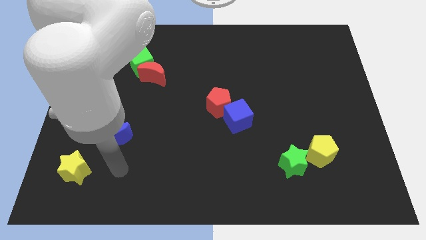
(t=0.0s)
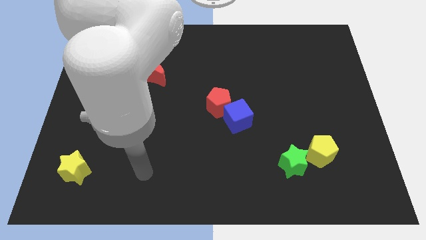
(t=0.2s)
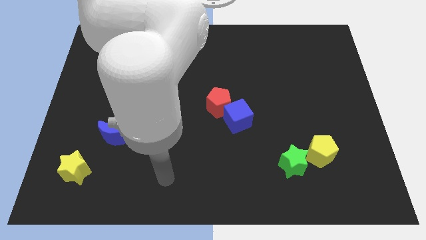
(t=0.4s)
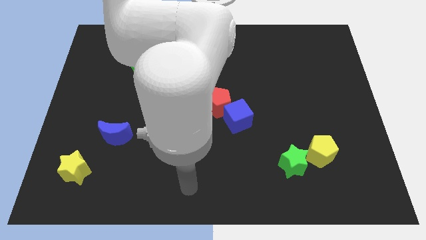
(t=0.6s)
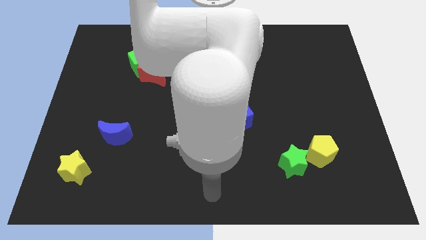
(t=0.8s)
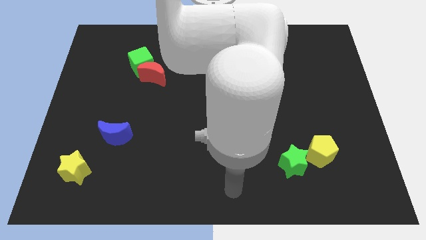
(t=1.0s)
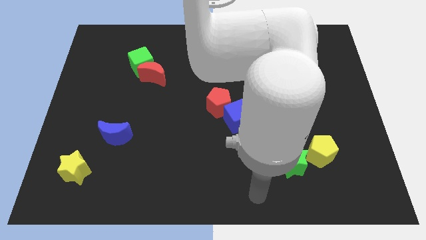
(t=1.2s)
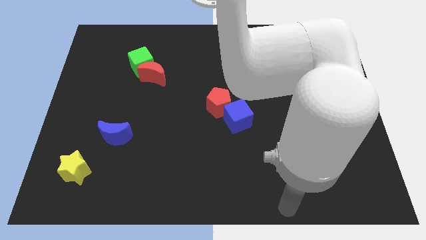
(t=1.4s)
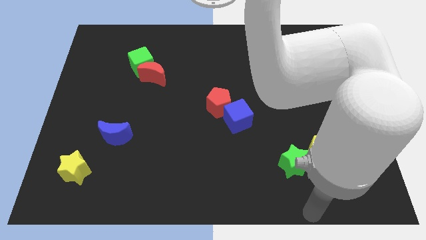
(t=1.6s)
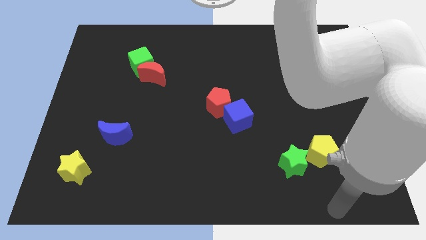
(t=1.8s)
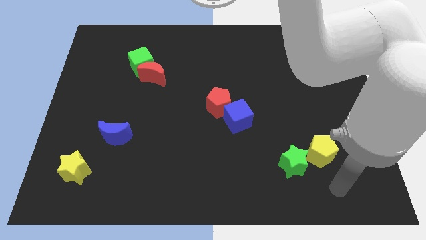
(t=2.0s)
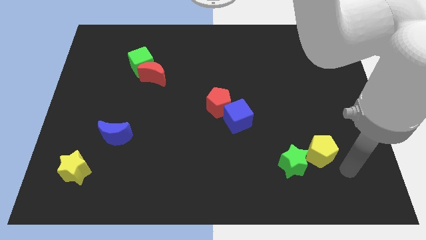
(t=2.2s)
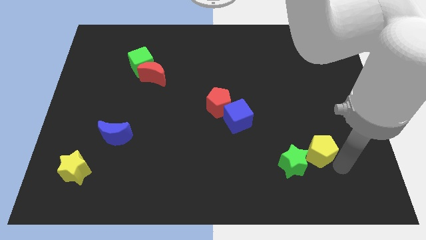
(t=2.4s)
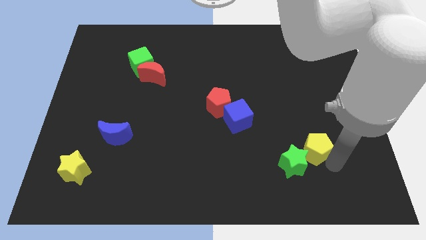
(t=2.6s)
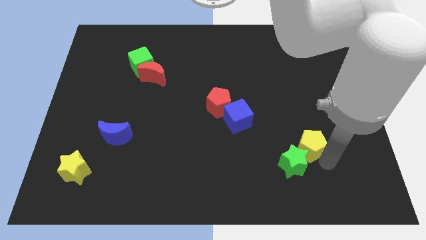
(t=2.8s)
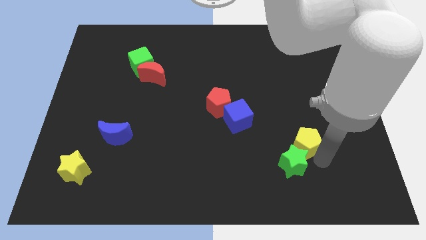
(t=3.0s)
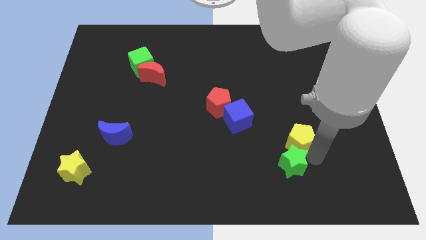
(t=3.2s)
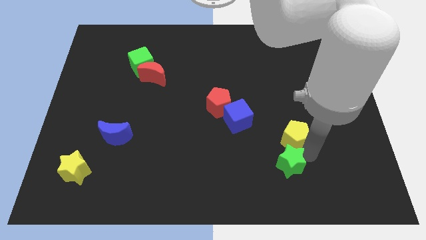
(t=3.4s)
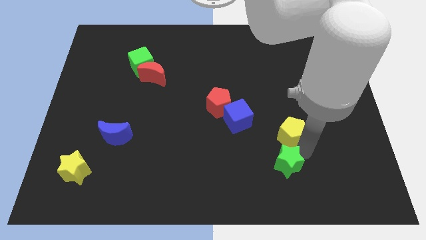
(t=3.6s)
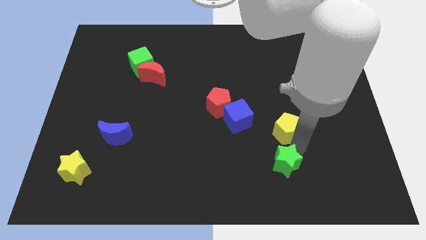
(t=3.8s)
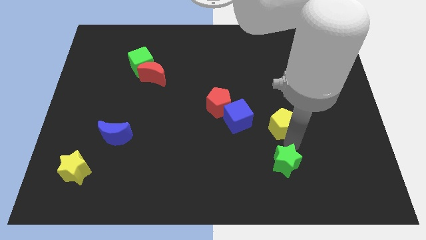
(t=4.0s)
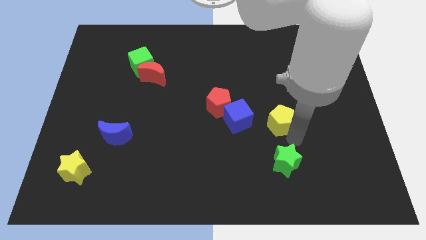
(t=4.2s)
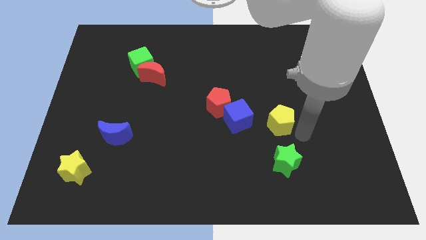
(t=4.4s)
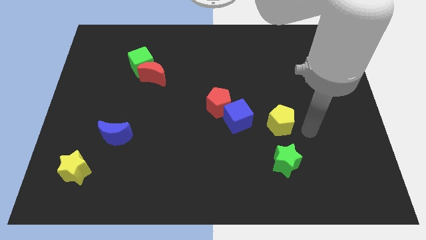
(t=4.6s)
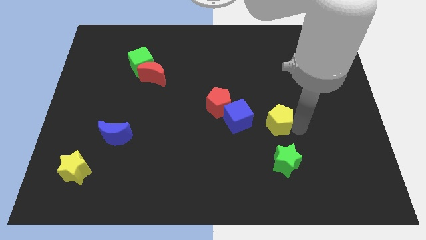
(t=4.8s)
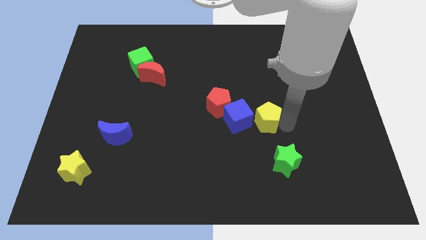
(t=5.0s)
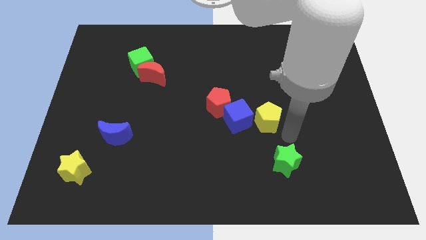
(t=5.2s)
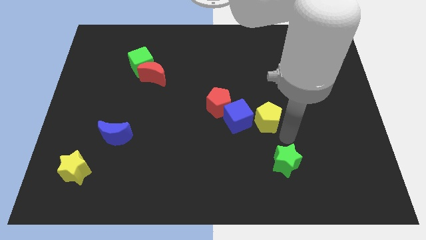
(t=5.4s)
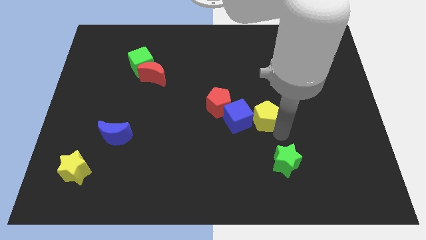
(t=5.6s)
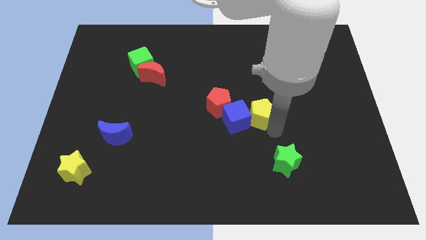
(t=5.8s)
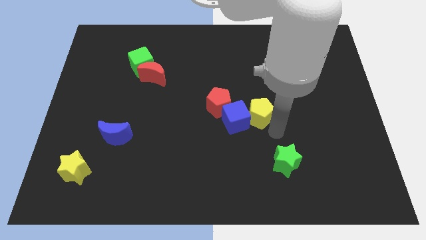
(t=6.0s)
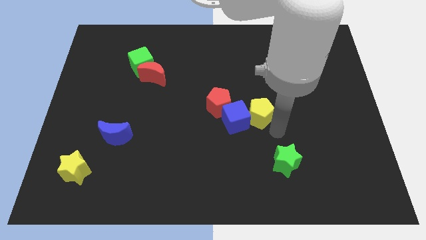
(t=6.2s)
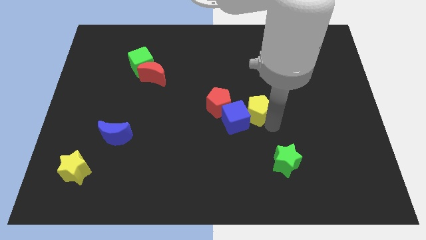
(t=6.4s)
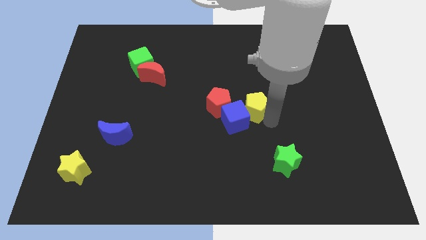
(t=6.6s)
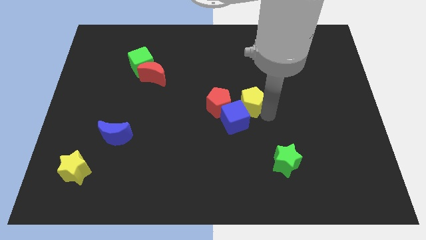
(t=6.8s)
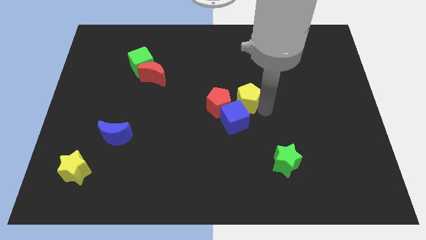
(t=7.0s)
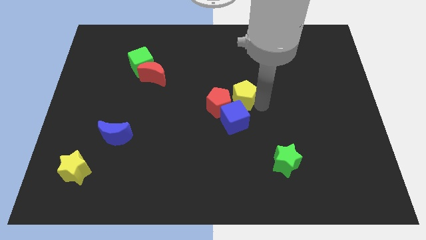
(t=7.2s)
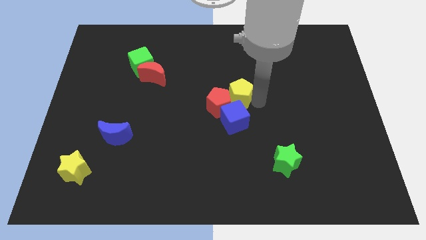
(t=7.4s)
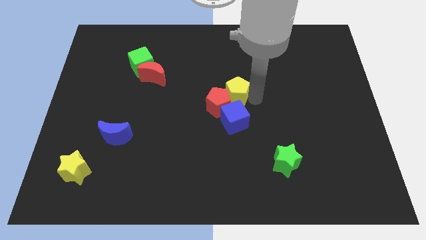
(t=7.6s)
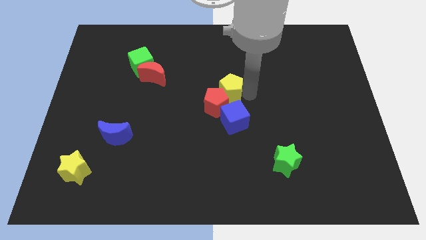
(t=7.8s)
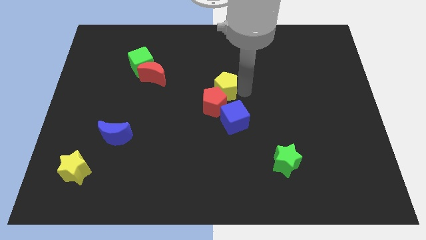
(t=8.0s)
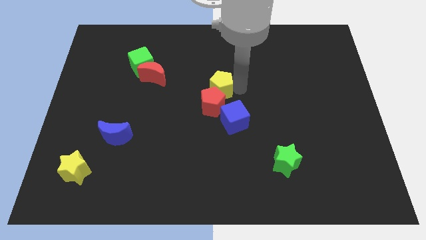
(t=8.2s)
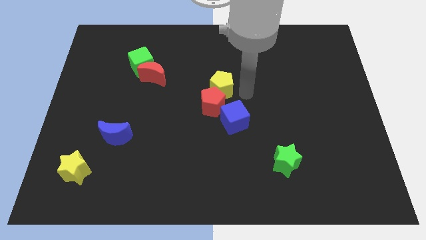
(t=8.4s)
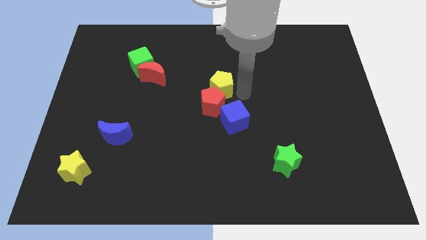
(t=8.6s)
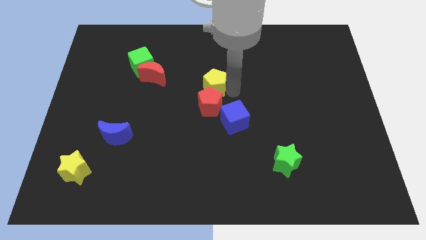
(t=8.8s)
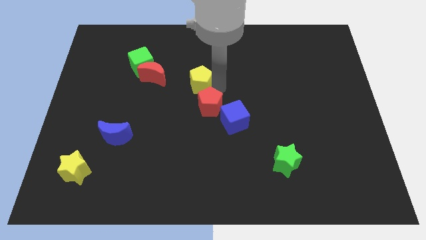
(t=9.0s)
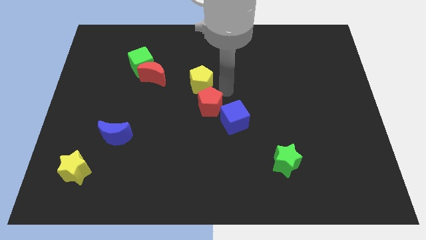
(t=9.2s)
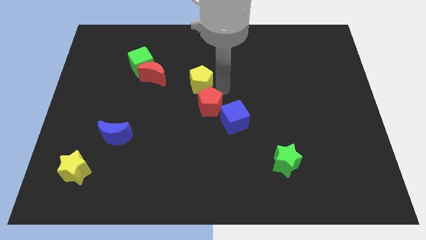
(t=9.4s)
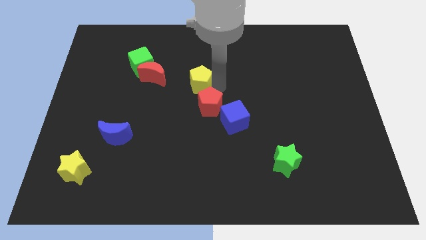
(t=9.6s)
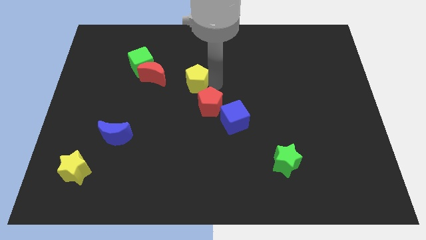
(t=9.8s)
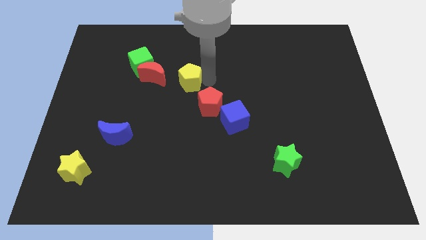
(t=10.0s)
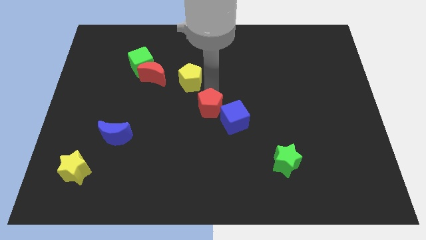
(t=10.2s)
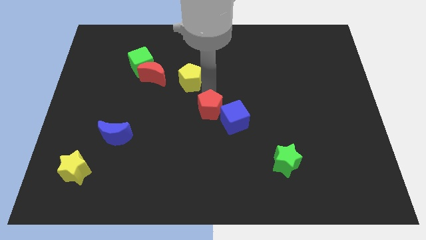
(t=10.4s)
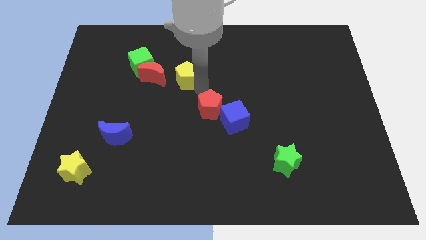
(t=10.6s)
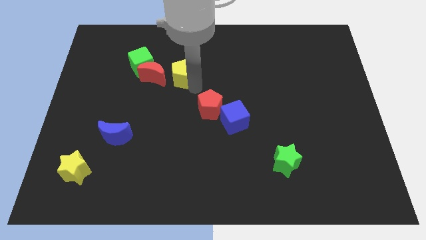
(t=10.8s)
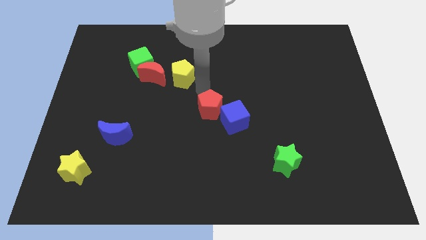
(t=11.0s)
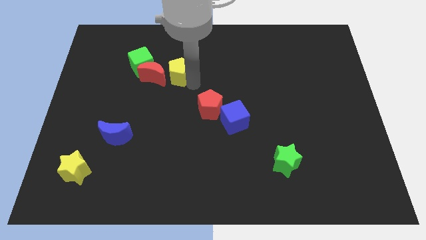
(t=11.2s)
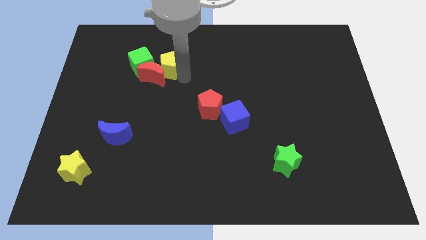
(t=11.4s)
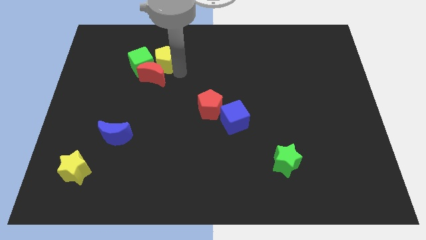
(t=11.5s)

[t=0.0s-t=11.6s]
put the yellow pentagon close to the green cube

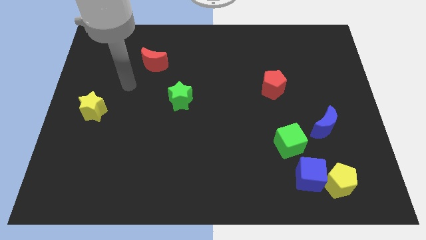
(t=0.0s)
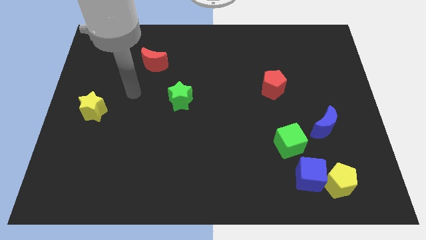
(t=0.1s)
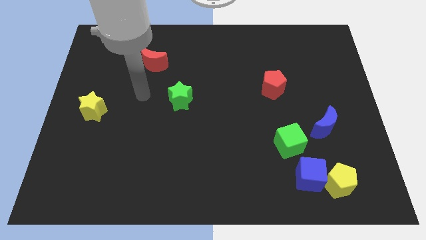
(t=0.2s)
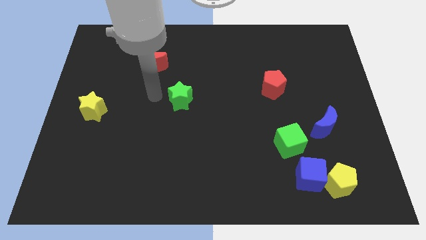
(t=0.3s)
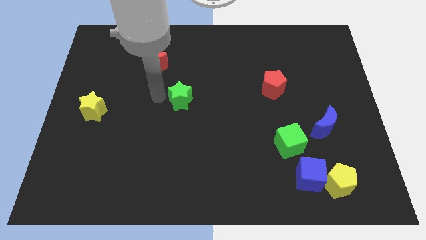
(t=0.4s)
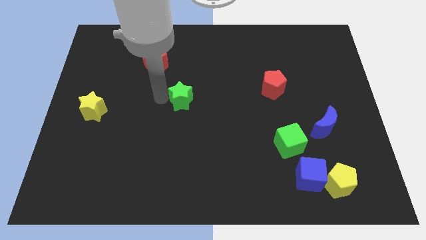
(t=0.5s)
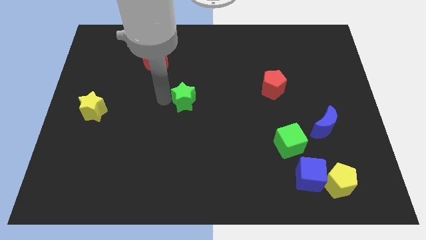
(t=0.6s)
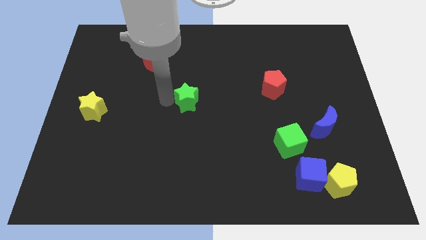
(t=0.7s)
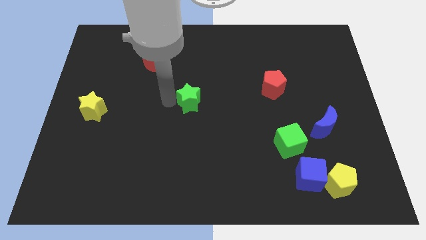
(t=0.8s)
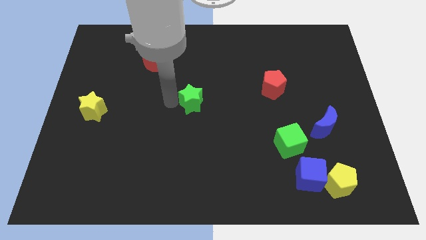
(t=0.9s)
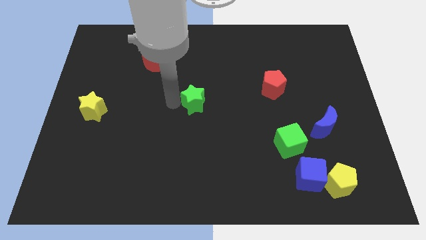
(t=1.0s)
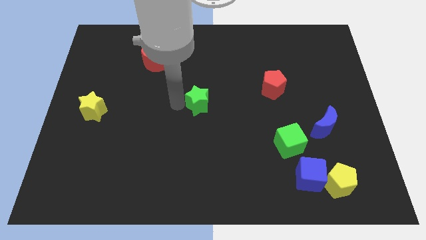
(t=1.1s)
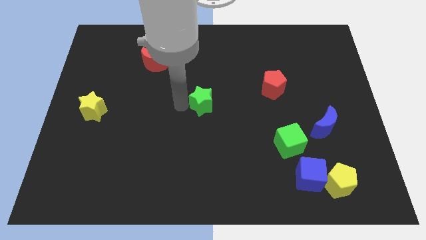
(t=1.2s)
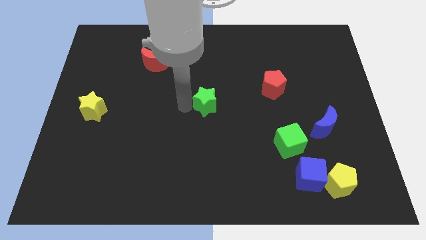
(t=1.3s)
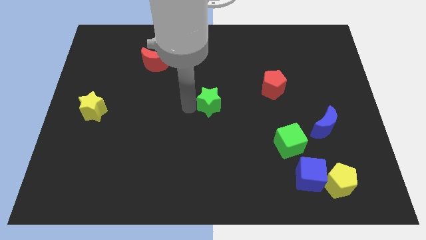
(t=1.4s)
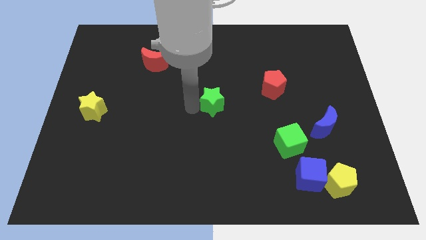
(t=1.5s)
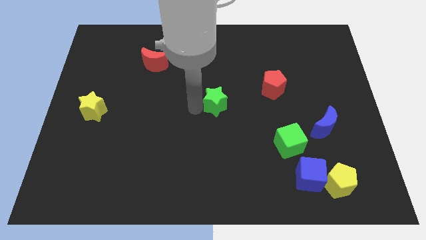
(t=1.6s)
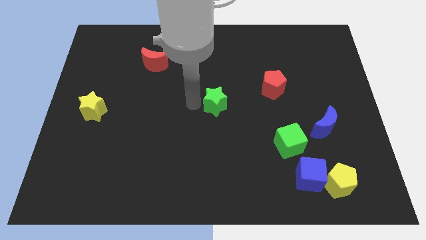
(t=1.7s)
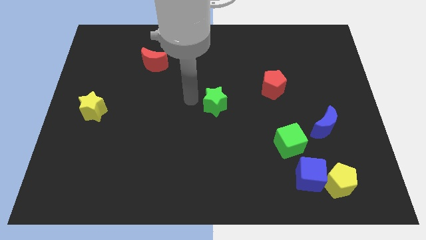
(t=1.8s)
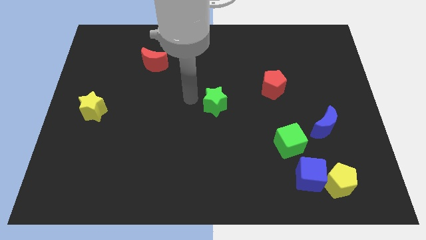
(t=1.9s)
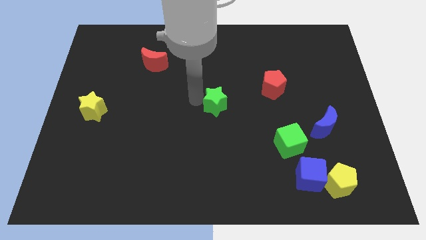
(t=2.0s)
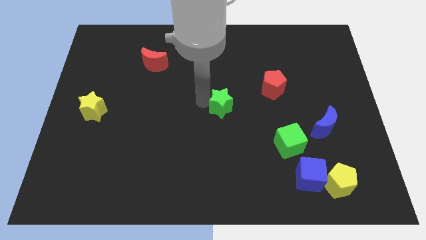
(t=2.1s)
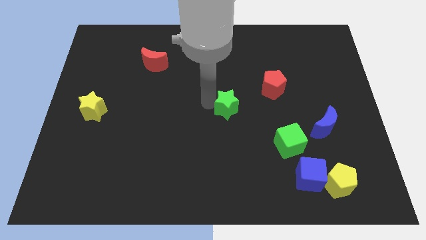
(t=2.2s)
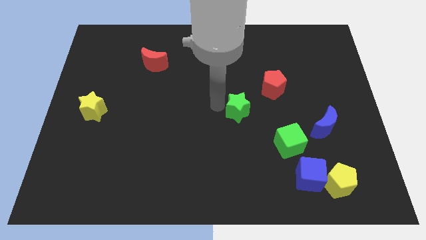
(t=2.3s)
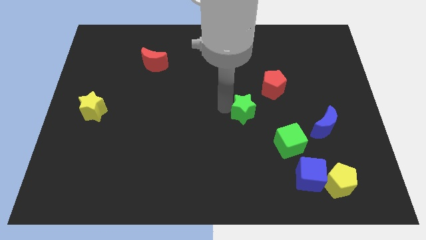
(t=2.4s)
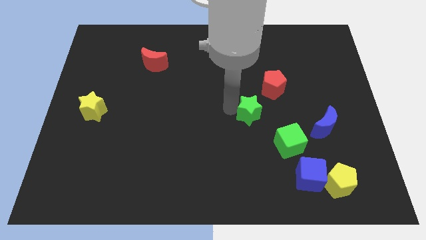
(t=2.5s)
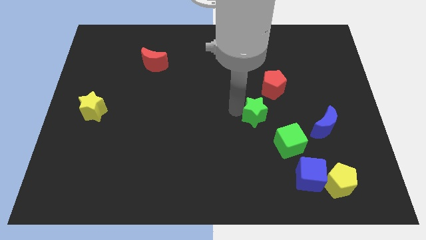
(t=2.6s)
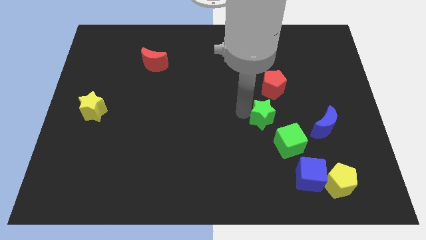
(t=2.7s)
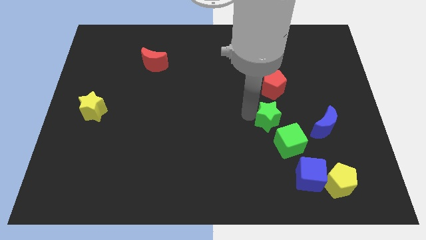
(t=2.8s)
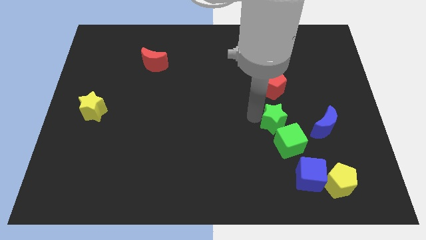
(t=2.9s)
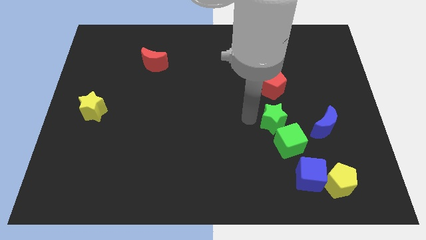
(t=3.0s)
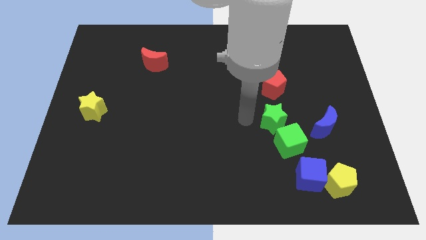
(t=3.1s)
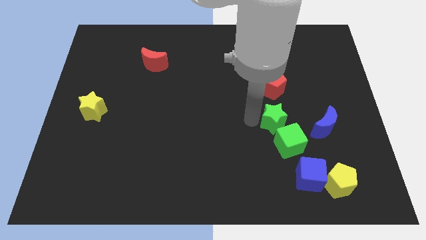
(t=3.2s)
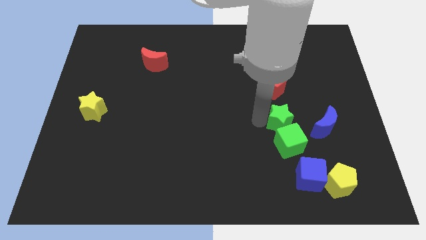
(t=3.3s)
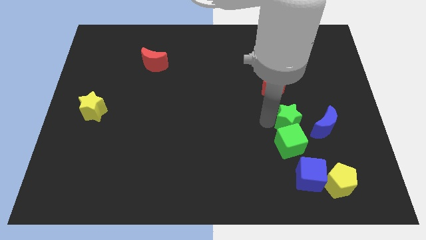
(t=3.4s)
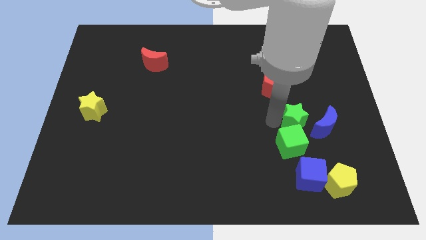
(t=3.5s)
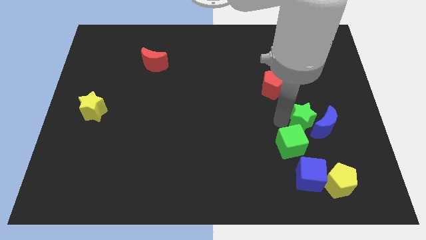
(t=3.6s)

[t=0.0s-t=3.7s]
slide the green star next to the blue moon
